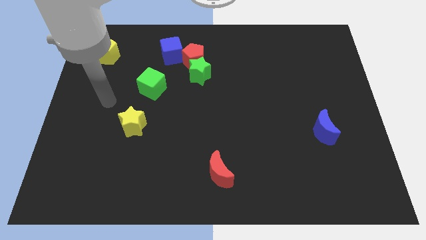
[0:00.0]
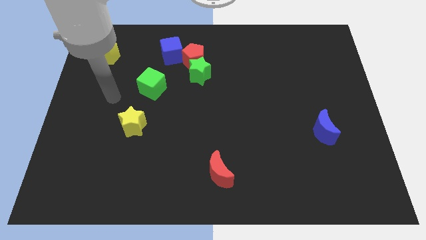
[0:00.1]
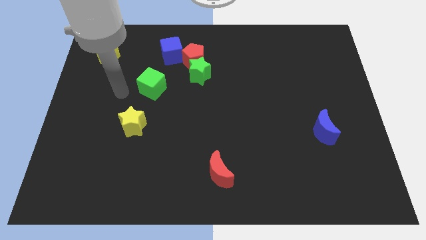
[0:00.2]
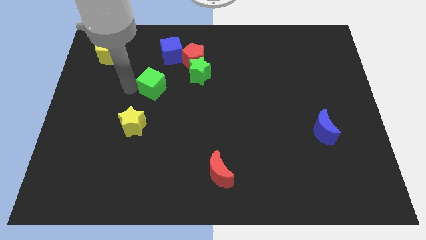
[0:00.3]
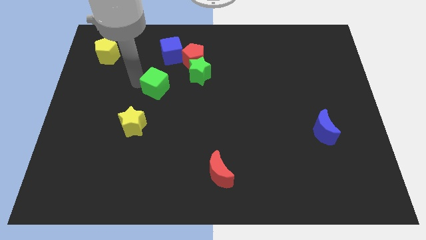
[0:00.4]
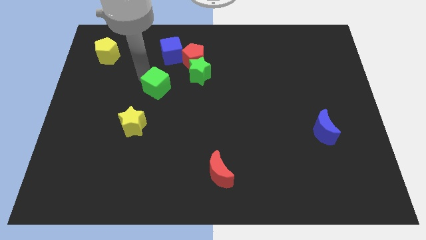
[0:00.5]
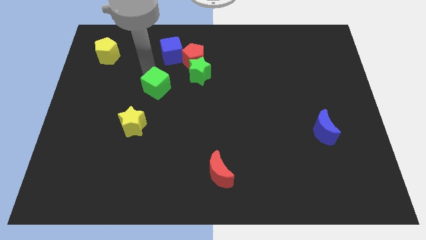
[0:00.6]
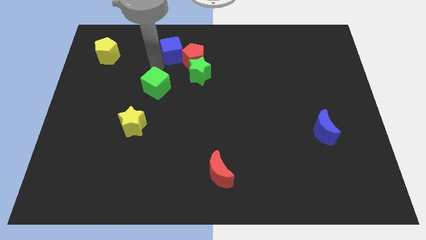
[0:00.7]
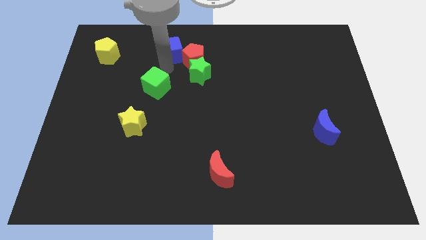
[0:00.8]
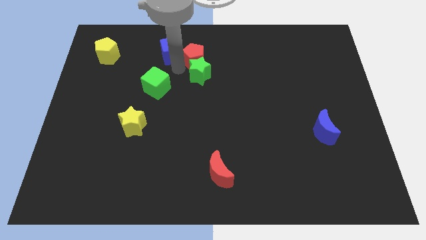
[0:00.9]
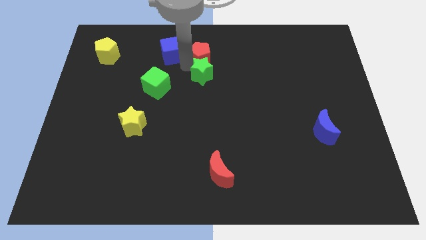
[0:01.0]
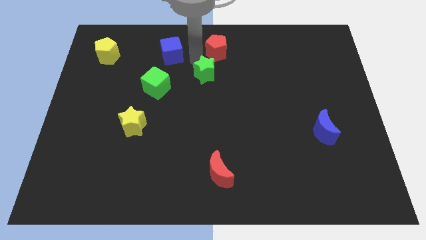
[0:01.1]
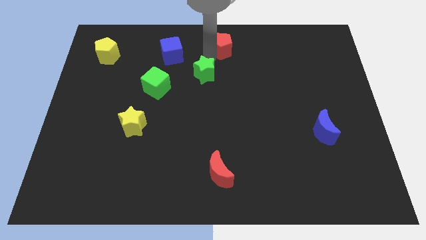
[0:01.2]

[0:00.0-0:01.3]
pull the green star apart from the red pentagon

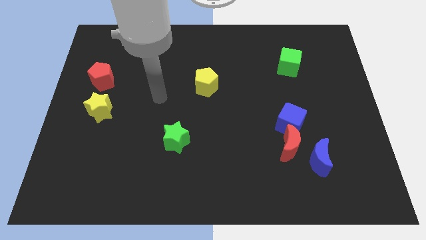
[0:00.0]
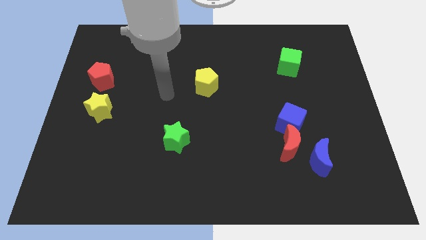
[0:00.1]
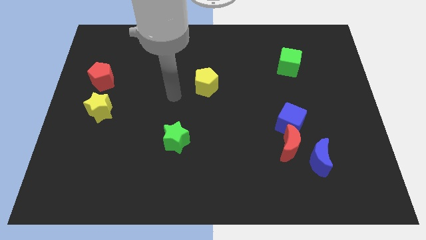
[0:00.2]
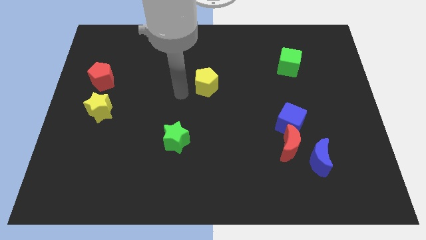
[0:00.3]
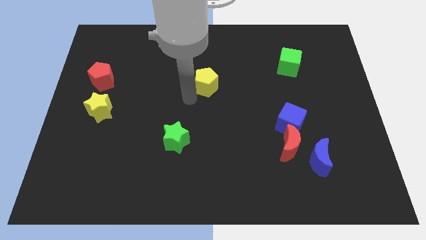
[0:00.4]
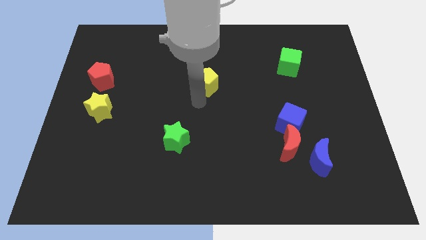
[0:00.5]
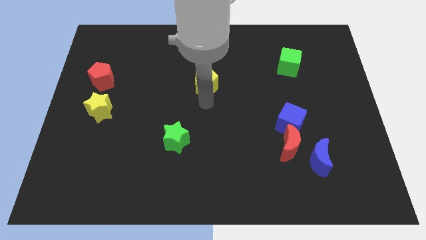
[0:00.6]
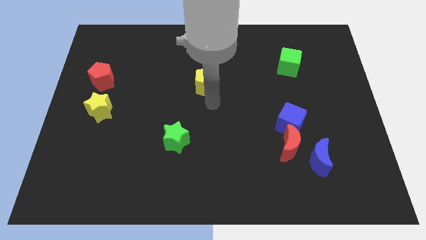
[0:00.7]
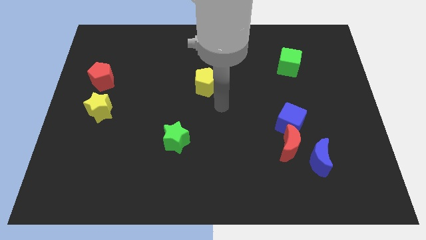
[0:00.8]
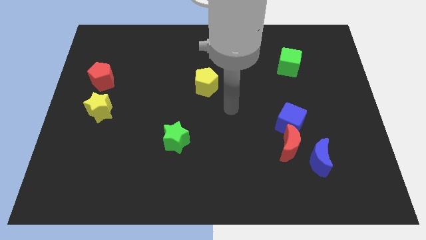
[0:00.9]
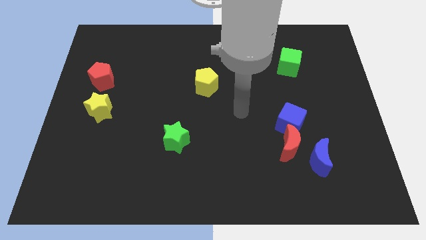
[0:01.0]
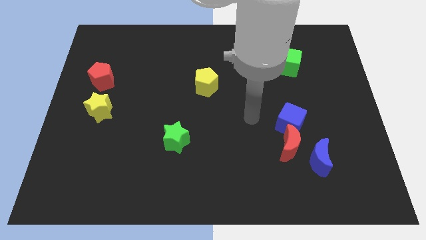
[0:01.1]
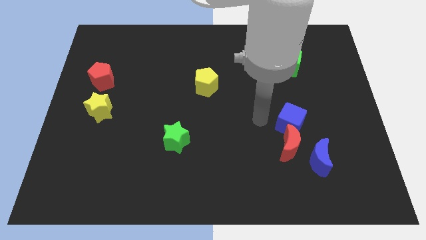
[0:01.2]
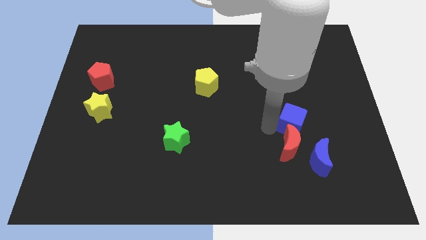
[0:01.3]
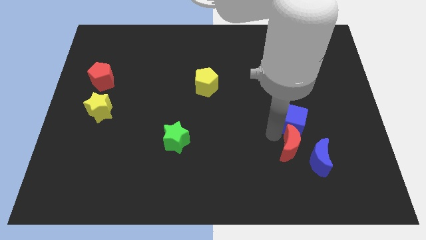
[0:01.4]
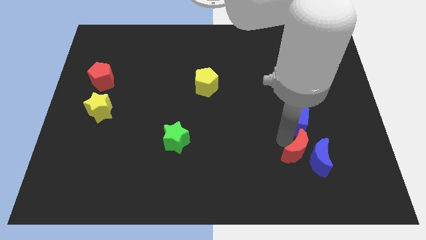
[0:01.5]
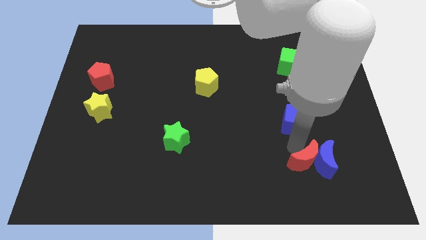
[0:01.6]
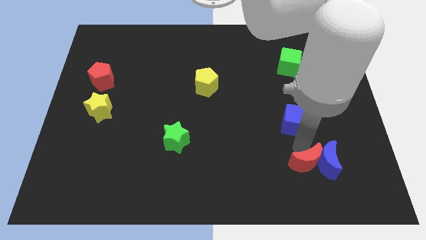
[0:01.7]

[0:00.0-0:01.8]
move the blue cube away from the red moon

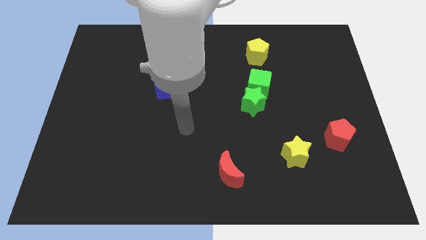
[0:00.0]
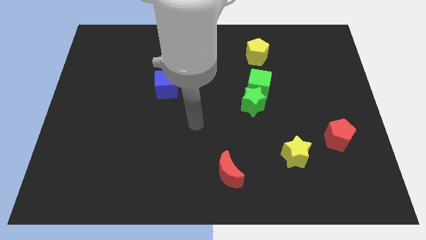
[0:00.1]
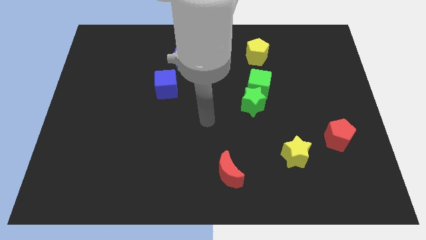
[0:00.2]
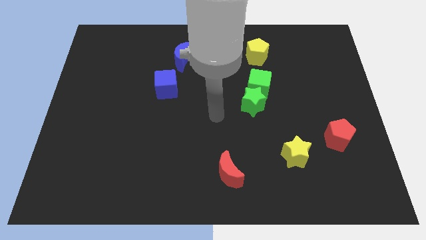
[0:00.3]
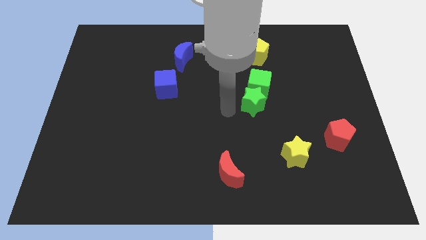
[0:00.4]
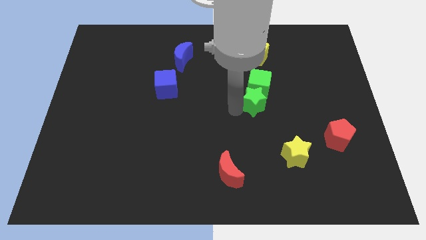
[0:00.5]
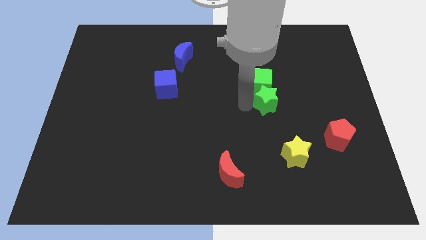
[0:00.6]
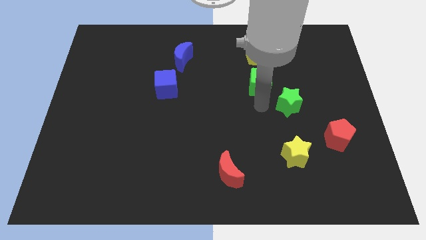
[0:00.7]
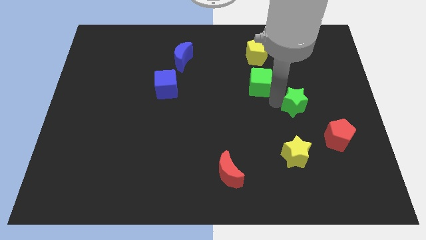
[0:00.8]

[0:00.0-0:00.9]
move the green cube away from the green star

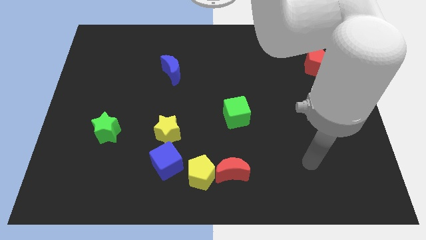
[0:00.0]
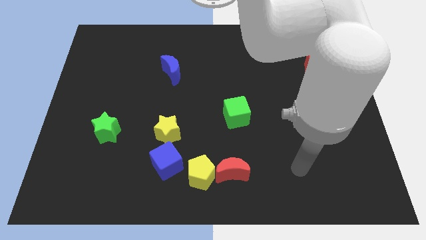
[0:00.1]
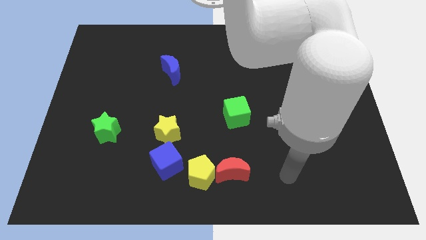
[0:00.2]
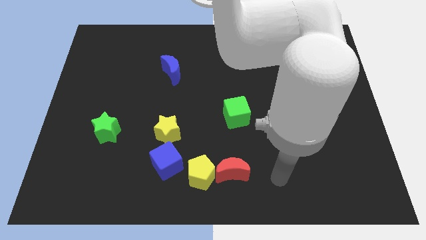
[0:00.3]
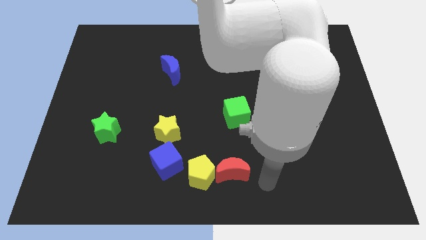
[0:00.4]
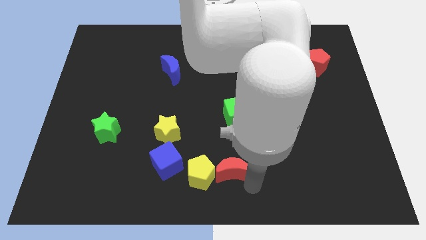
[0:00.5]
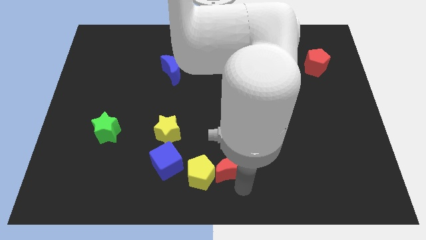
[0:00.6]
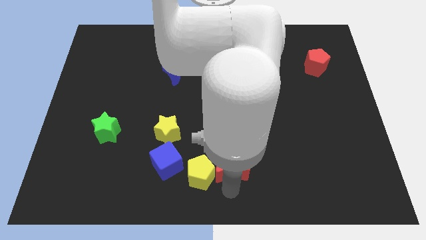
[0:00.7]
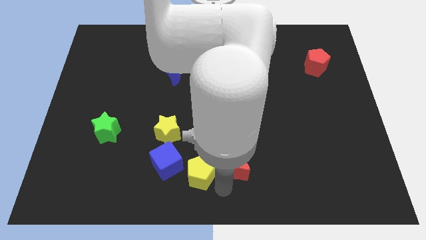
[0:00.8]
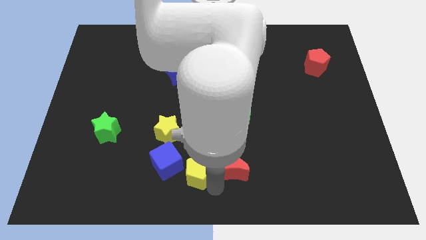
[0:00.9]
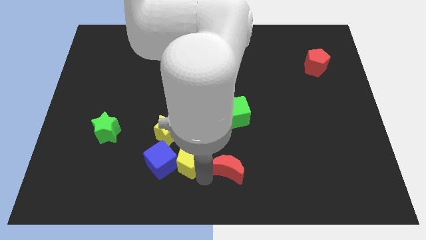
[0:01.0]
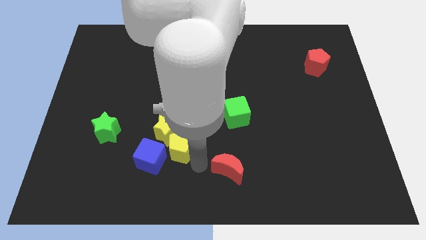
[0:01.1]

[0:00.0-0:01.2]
move the red moon away from the yellow pentagon

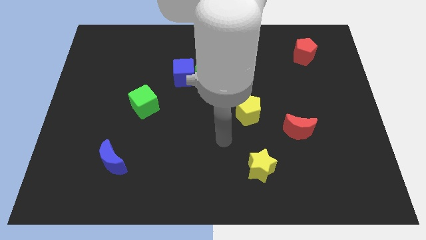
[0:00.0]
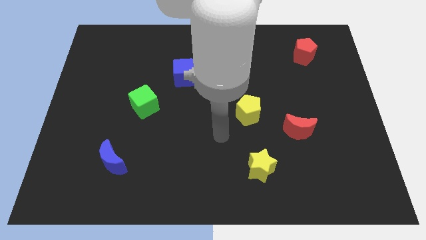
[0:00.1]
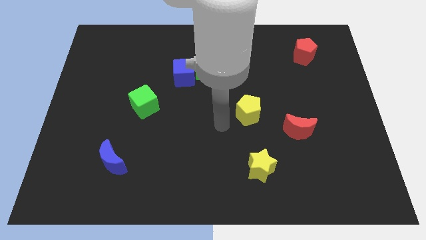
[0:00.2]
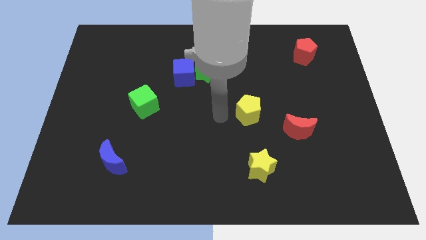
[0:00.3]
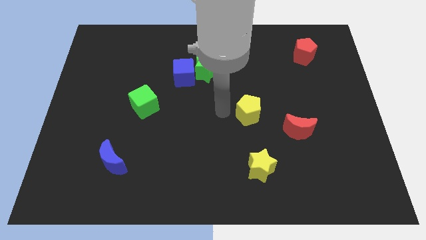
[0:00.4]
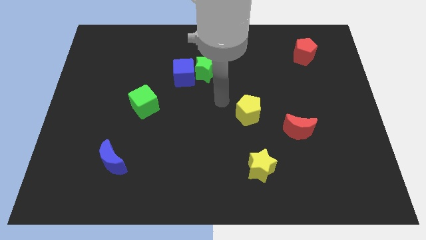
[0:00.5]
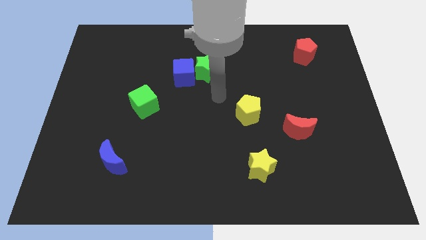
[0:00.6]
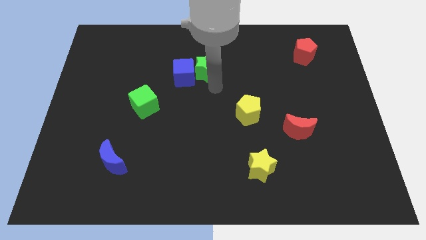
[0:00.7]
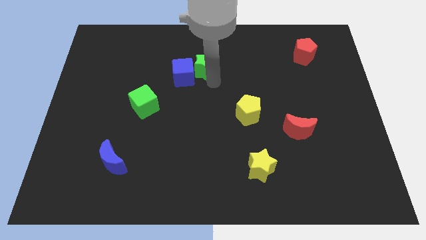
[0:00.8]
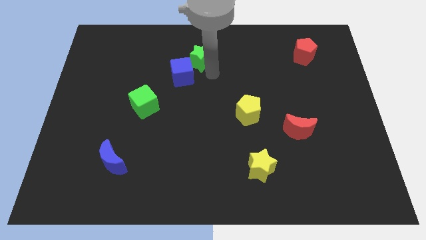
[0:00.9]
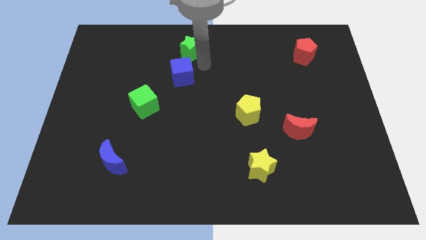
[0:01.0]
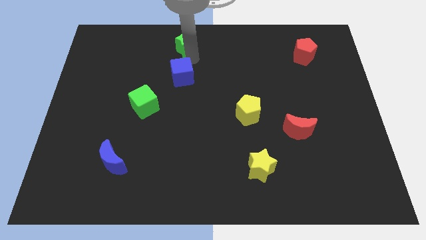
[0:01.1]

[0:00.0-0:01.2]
move the blue cube away from the green star

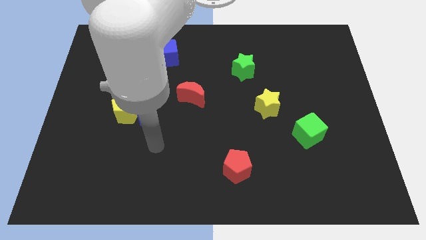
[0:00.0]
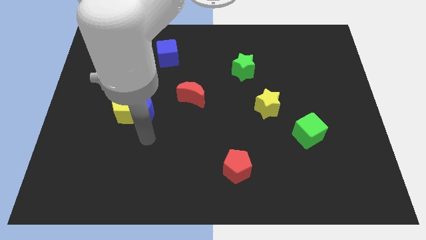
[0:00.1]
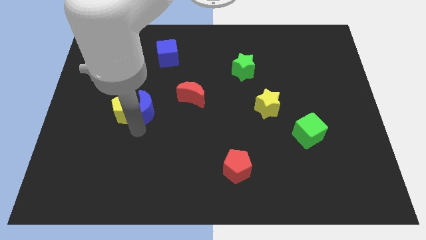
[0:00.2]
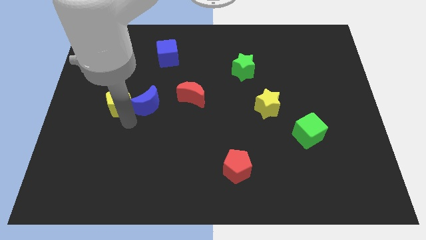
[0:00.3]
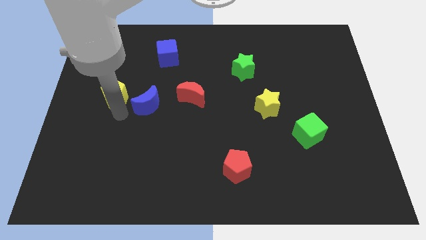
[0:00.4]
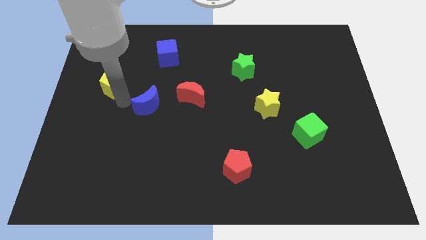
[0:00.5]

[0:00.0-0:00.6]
move the blue moon away from the yellow pentagon

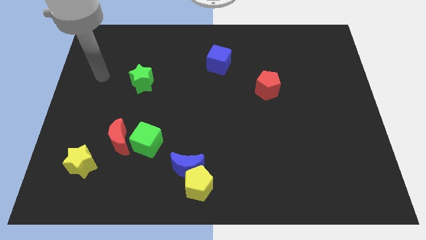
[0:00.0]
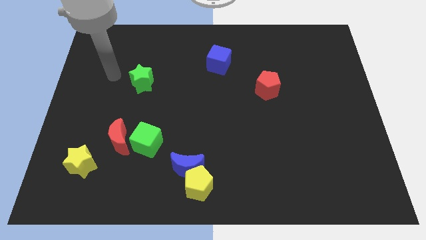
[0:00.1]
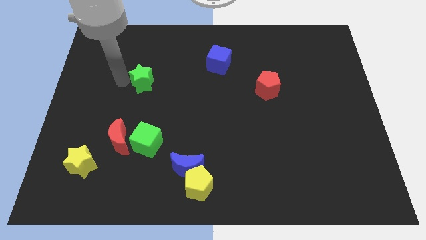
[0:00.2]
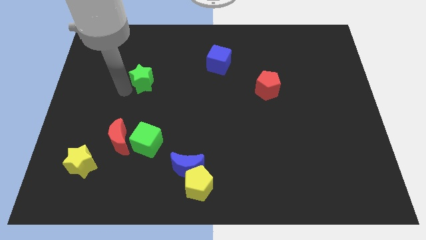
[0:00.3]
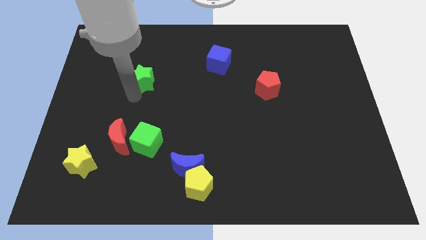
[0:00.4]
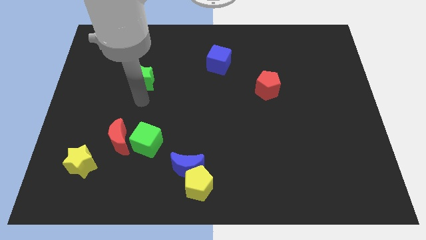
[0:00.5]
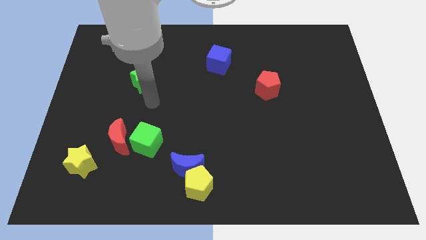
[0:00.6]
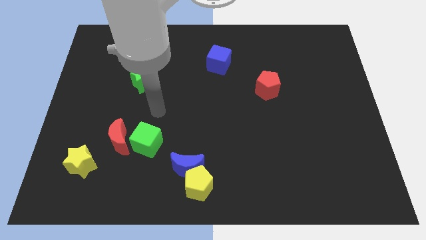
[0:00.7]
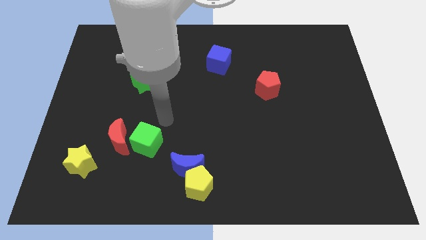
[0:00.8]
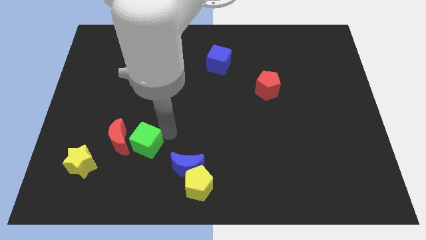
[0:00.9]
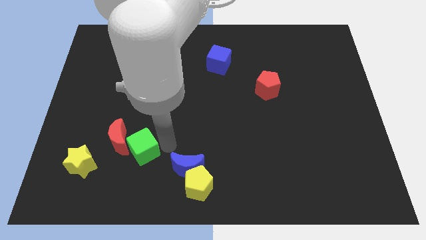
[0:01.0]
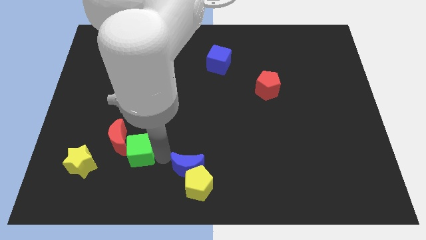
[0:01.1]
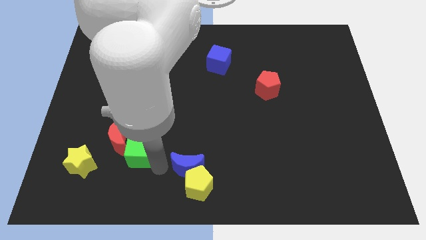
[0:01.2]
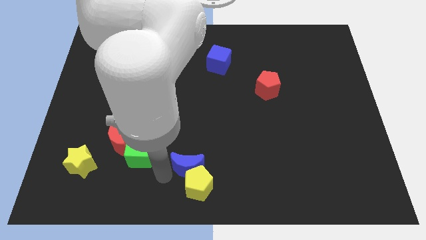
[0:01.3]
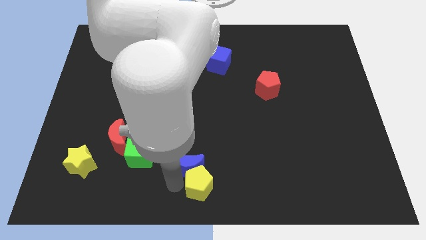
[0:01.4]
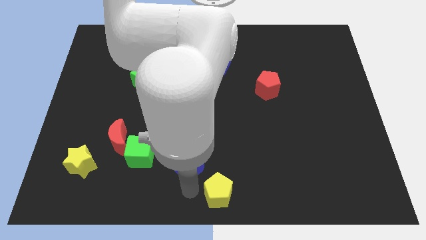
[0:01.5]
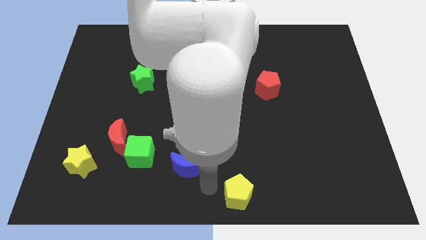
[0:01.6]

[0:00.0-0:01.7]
pull the blue moon apart from the yellow pentagon

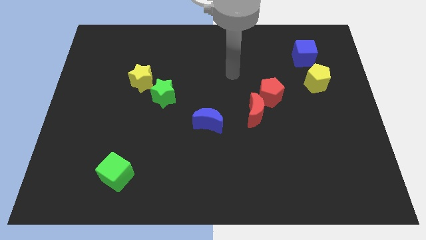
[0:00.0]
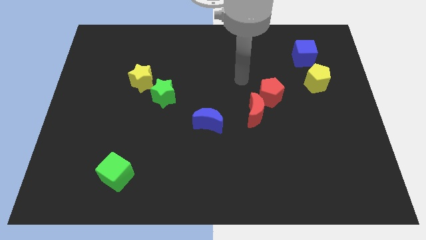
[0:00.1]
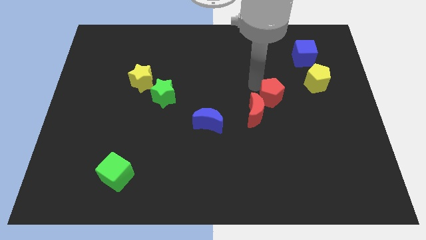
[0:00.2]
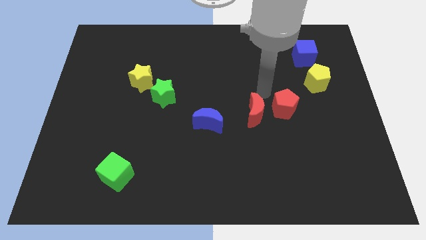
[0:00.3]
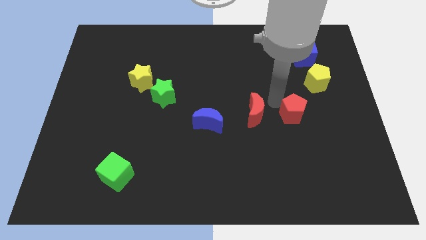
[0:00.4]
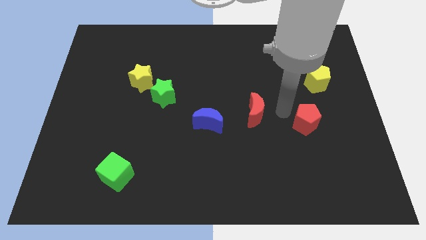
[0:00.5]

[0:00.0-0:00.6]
separate the red moon from the red pentagon
